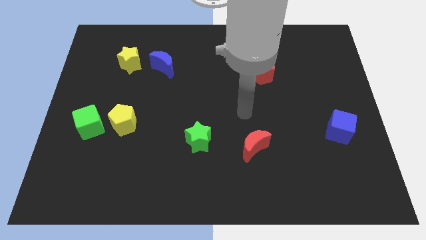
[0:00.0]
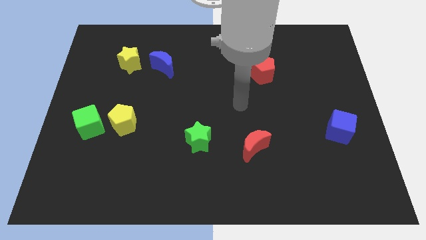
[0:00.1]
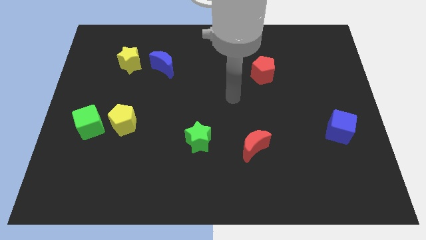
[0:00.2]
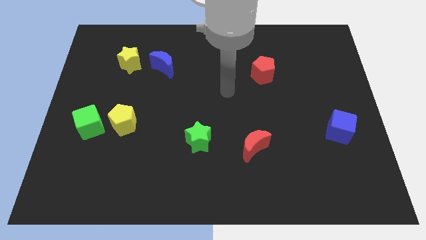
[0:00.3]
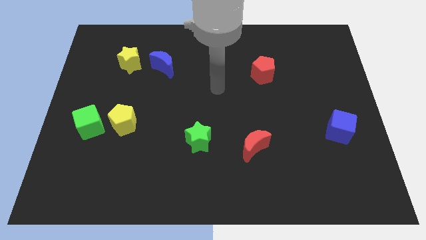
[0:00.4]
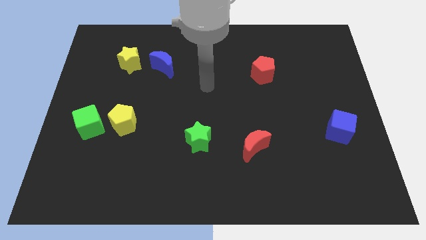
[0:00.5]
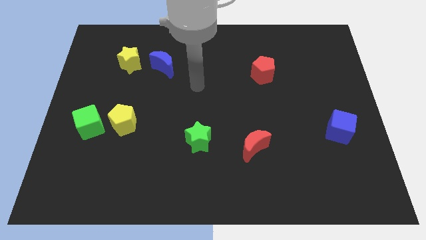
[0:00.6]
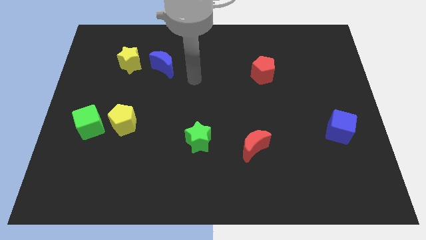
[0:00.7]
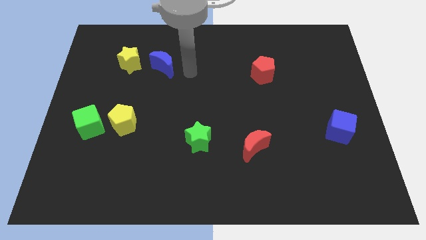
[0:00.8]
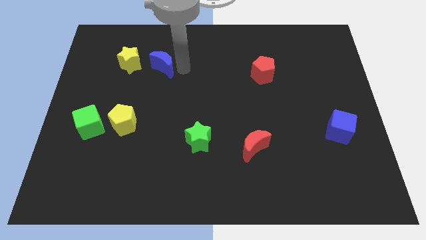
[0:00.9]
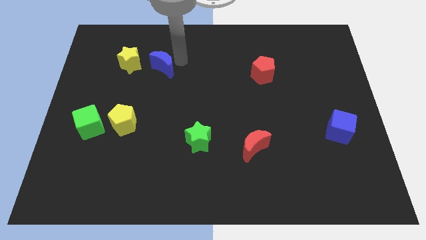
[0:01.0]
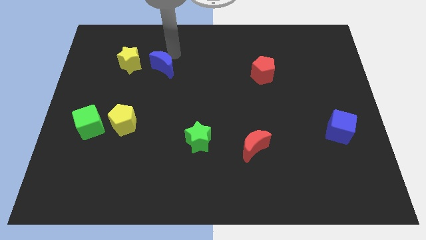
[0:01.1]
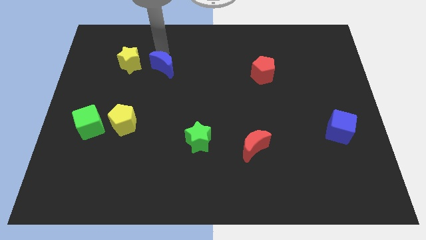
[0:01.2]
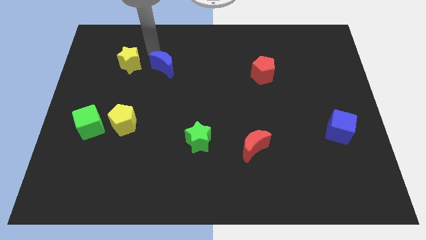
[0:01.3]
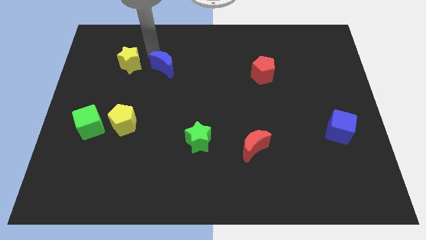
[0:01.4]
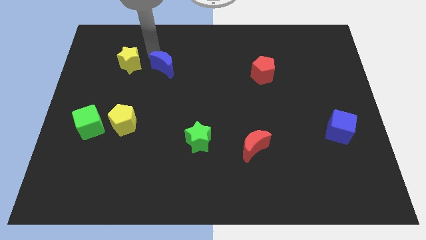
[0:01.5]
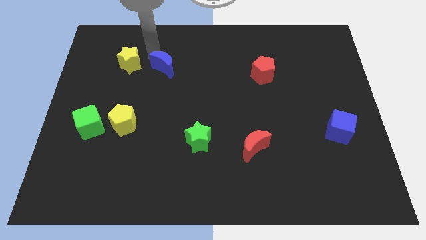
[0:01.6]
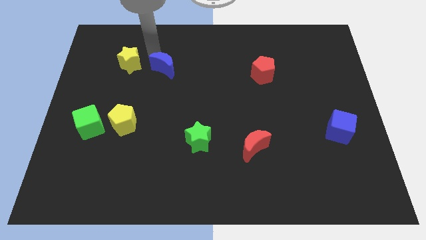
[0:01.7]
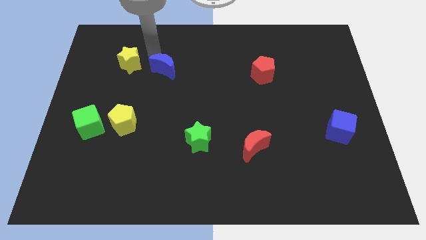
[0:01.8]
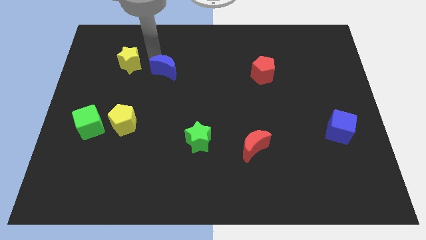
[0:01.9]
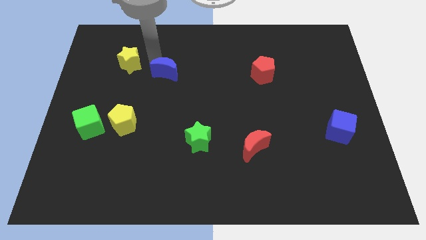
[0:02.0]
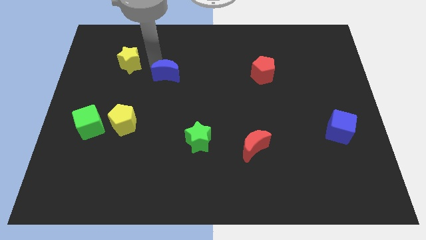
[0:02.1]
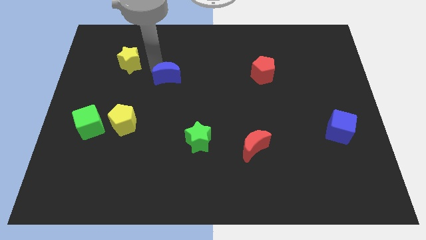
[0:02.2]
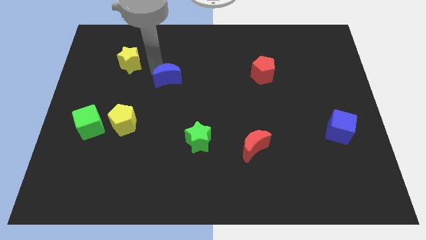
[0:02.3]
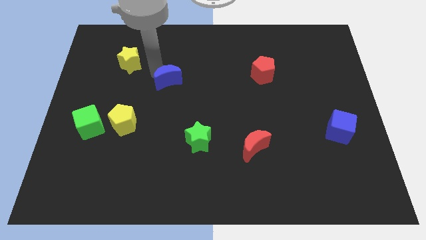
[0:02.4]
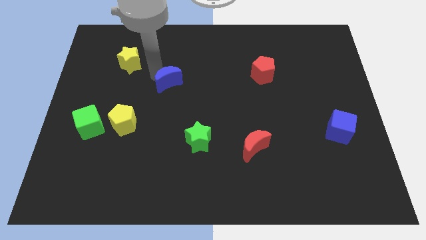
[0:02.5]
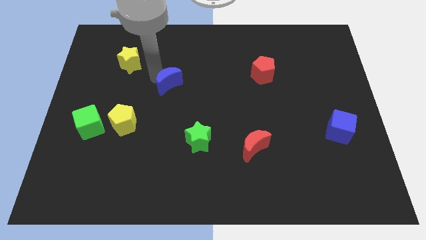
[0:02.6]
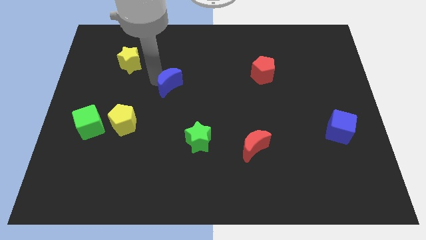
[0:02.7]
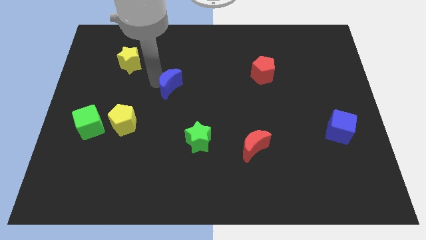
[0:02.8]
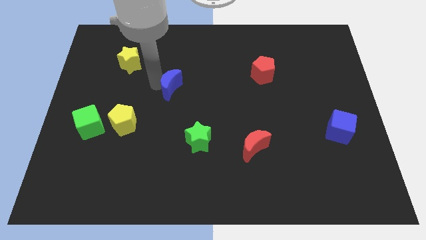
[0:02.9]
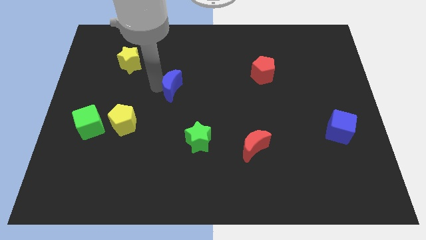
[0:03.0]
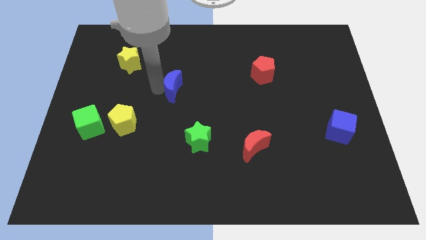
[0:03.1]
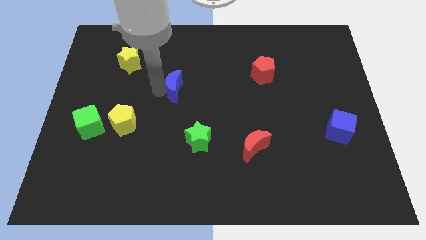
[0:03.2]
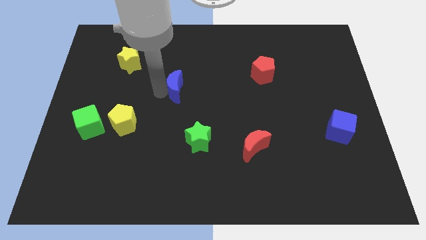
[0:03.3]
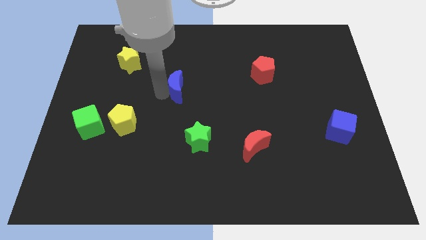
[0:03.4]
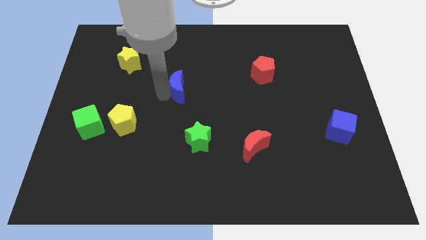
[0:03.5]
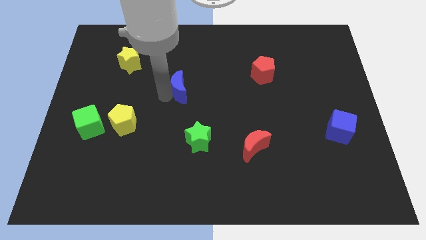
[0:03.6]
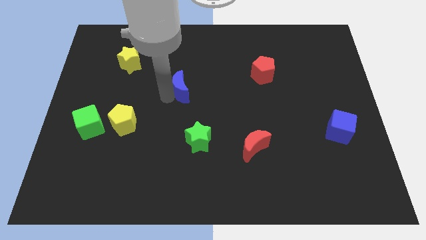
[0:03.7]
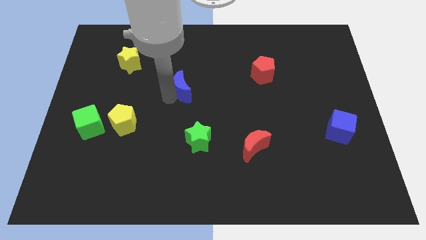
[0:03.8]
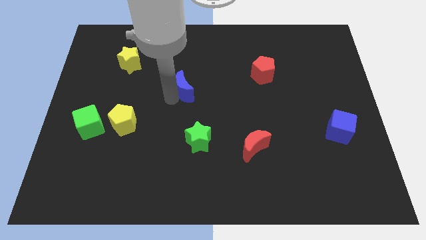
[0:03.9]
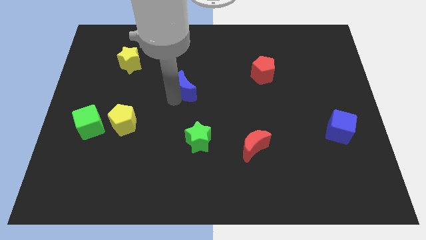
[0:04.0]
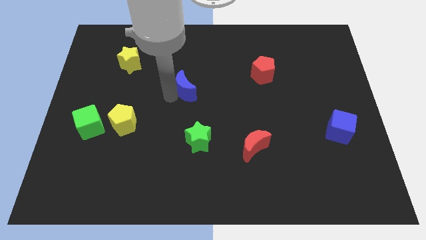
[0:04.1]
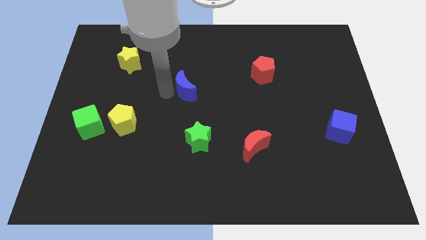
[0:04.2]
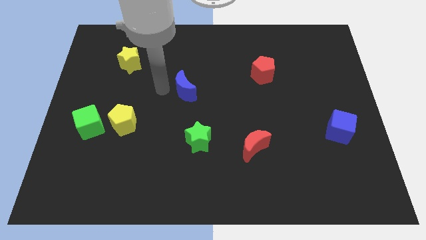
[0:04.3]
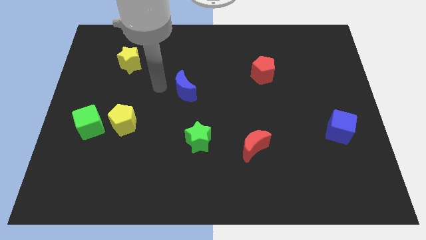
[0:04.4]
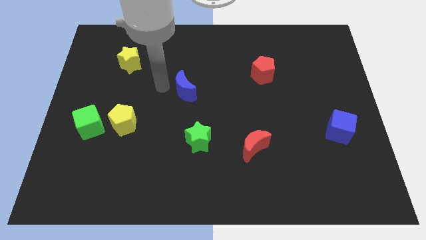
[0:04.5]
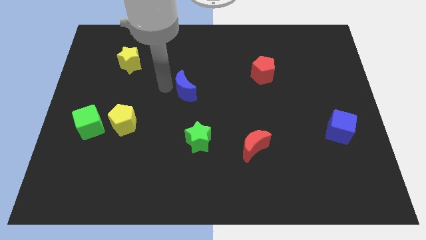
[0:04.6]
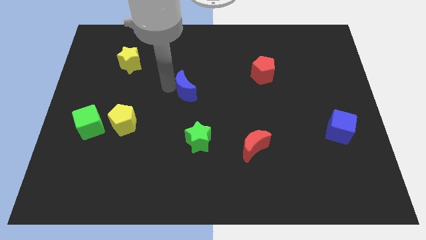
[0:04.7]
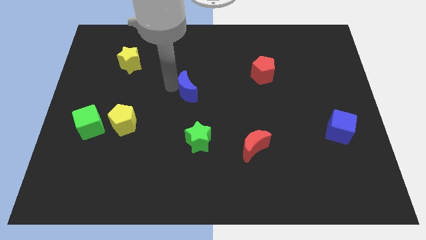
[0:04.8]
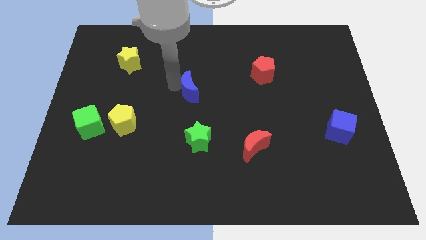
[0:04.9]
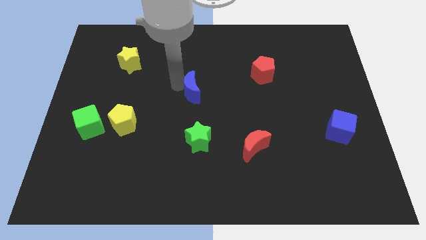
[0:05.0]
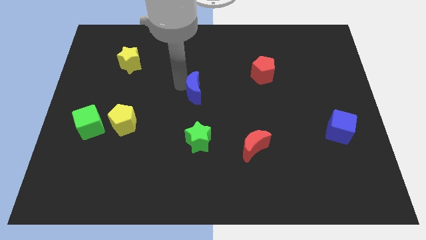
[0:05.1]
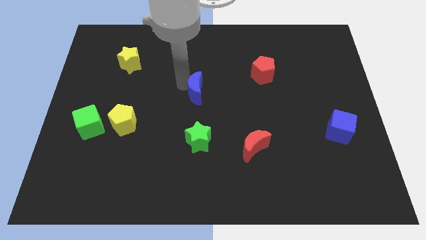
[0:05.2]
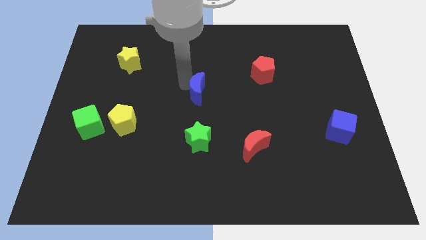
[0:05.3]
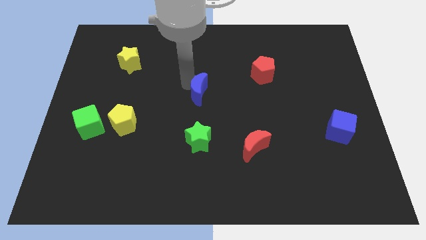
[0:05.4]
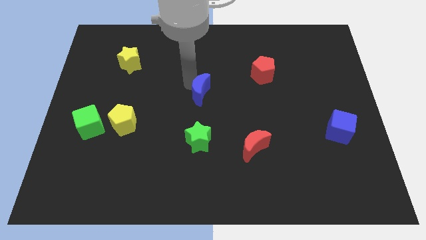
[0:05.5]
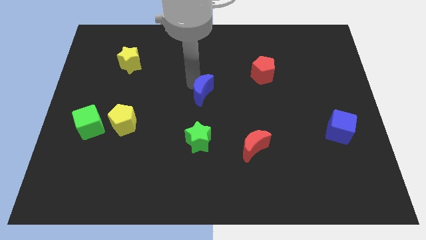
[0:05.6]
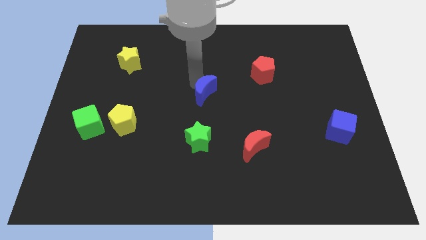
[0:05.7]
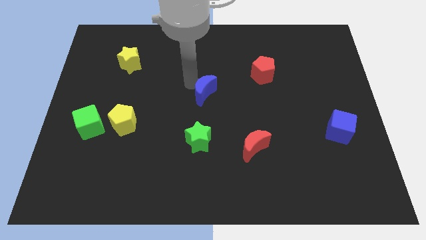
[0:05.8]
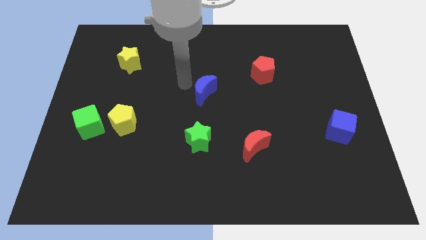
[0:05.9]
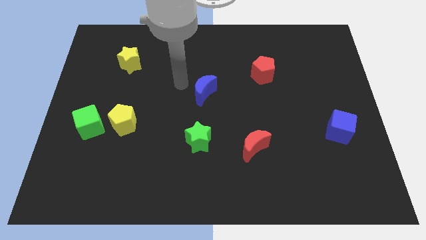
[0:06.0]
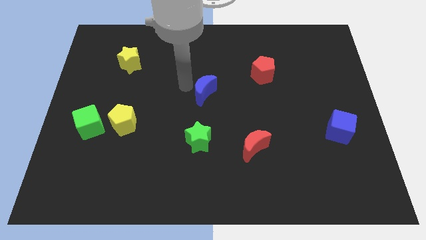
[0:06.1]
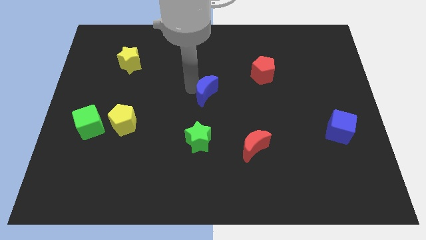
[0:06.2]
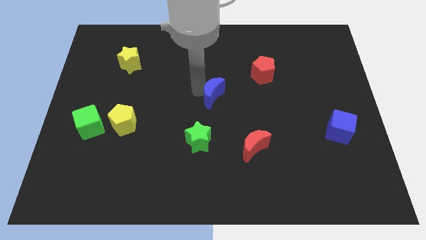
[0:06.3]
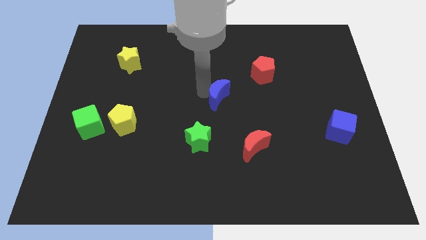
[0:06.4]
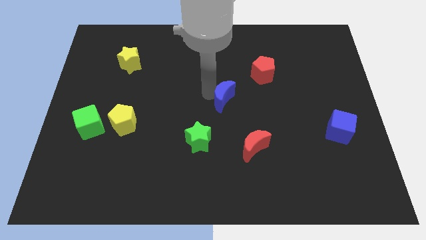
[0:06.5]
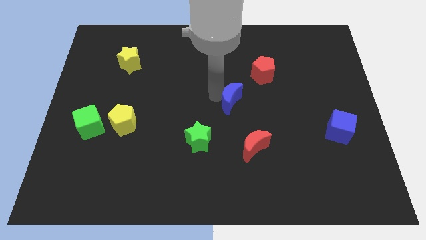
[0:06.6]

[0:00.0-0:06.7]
move the blue moon to the top of the red moon

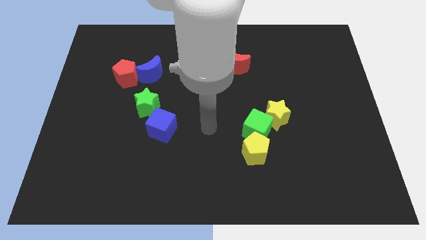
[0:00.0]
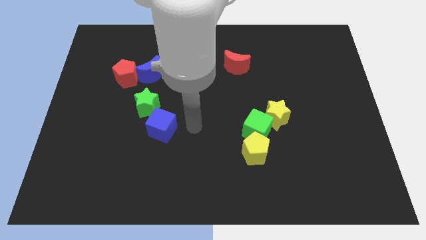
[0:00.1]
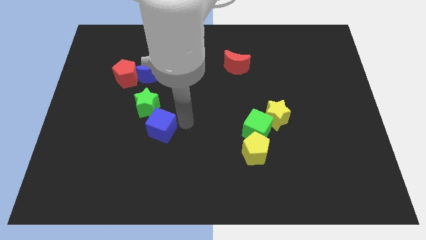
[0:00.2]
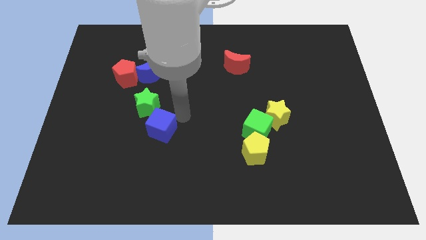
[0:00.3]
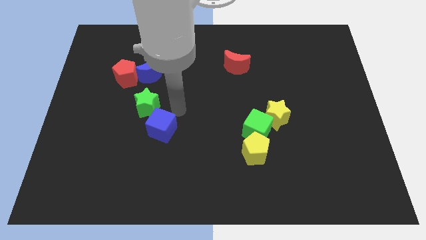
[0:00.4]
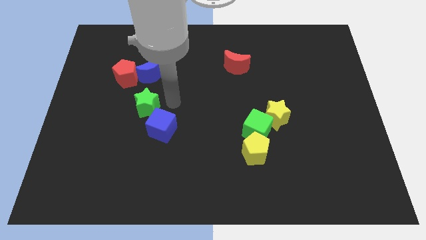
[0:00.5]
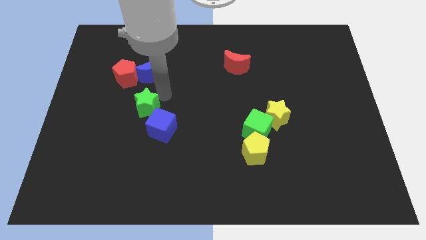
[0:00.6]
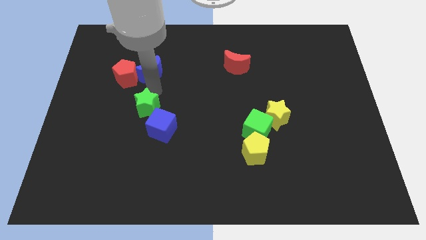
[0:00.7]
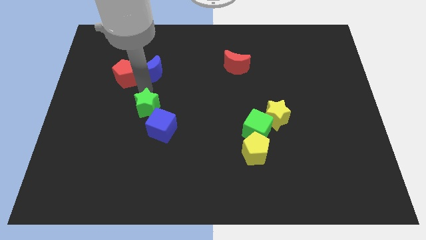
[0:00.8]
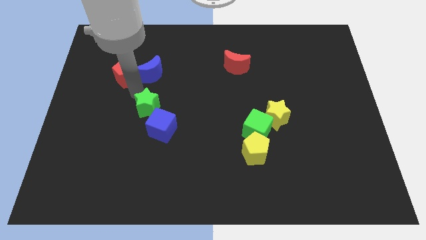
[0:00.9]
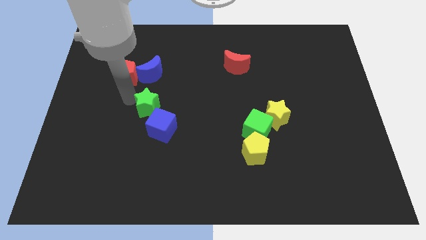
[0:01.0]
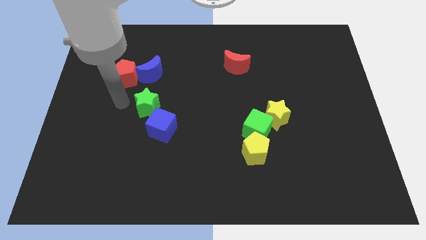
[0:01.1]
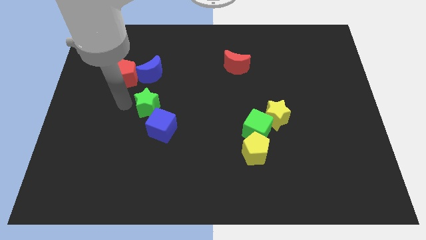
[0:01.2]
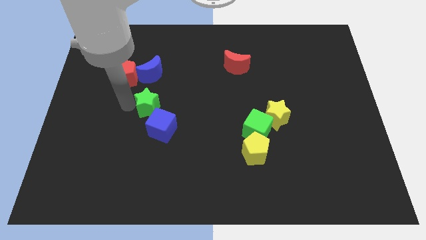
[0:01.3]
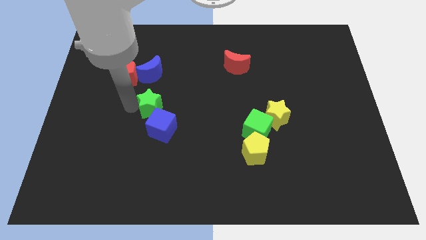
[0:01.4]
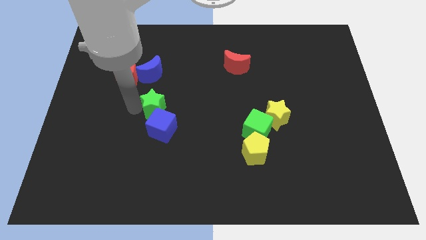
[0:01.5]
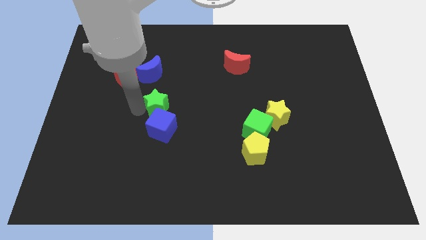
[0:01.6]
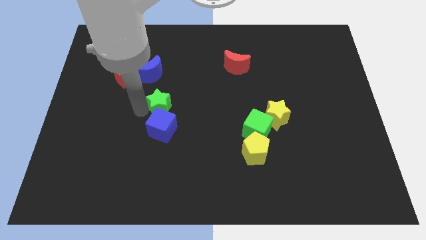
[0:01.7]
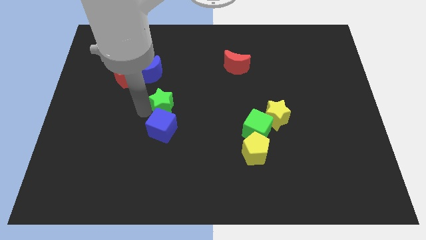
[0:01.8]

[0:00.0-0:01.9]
move the green star to the top right side of the blue cube
